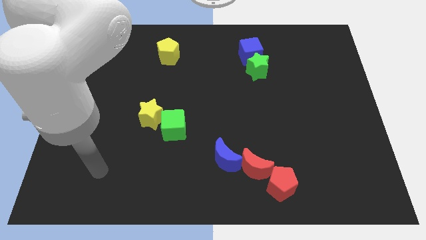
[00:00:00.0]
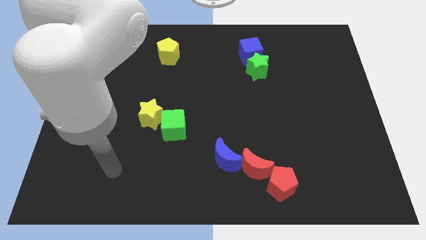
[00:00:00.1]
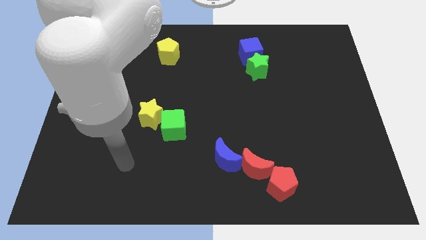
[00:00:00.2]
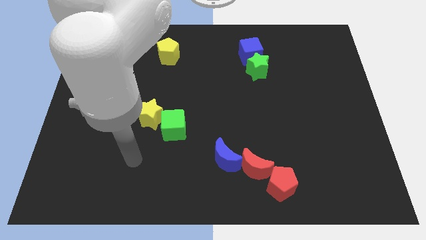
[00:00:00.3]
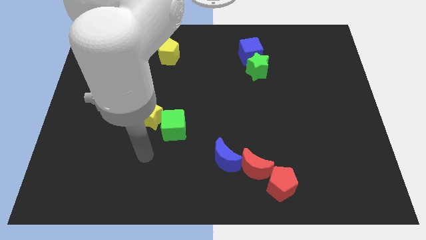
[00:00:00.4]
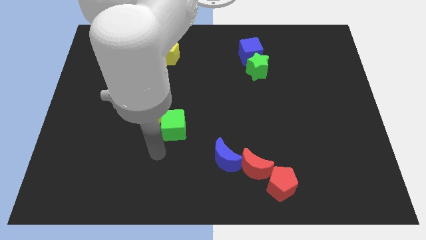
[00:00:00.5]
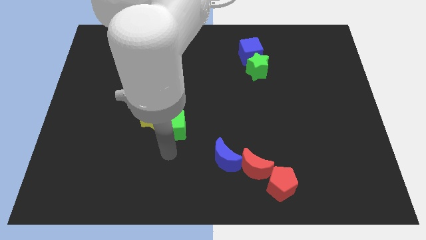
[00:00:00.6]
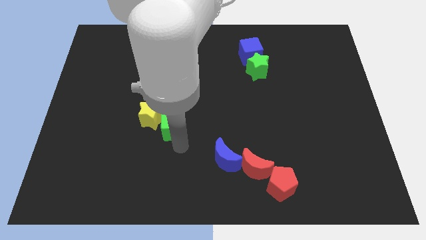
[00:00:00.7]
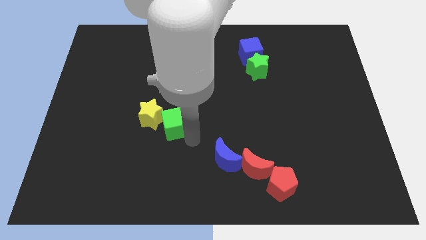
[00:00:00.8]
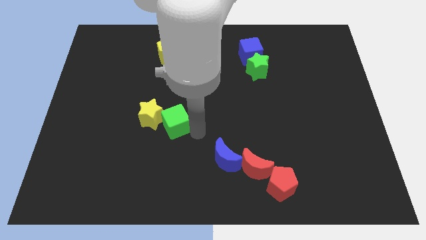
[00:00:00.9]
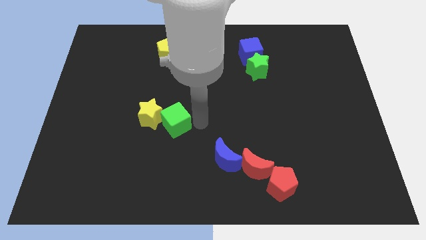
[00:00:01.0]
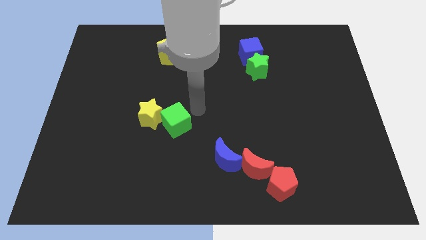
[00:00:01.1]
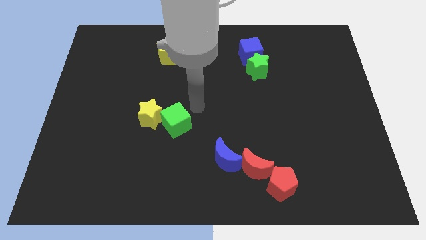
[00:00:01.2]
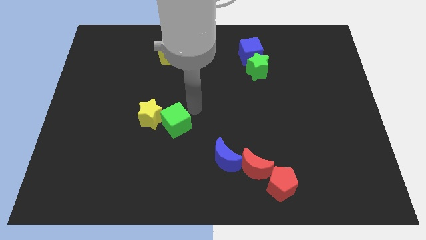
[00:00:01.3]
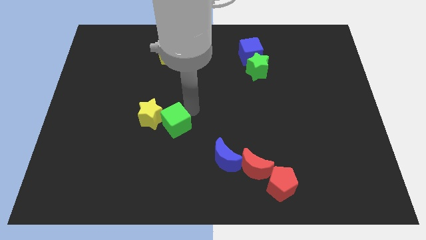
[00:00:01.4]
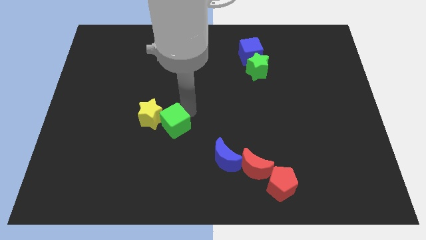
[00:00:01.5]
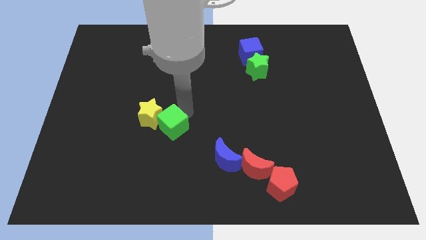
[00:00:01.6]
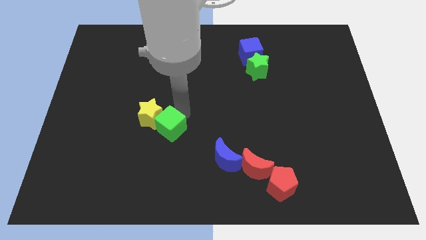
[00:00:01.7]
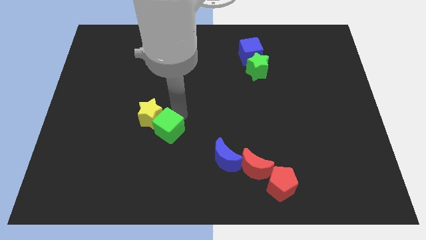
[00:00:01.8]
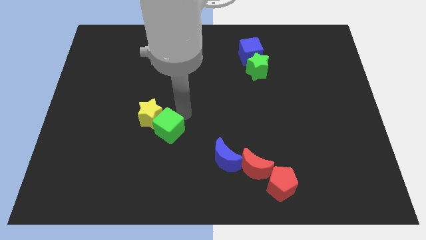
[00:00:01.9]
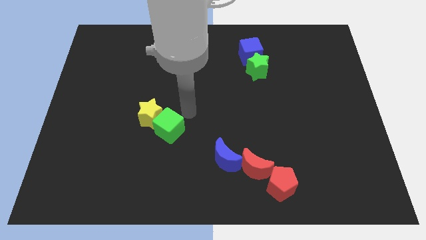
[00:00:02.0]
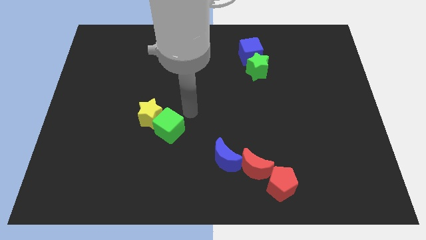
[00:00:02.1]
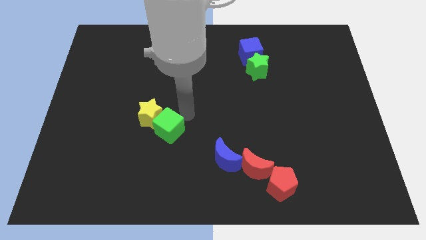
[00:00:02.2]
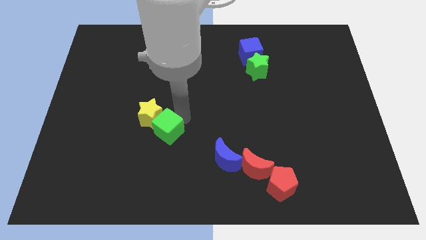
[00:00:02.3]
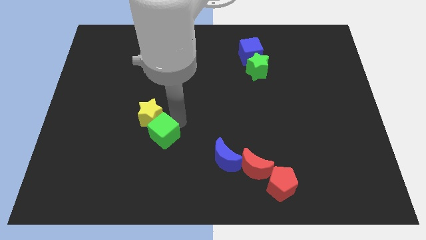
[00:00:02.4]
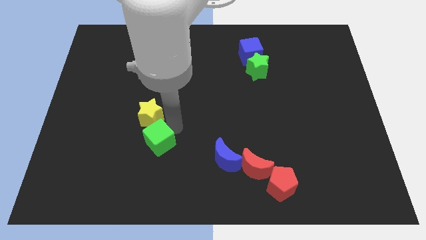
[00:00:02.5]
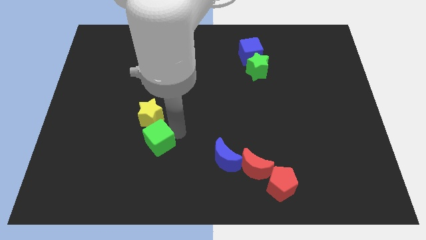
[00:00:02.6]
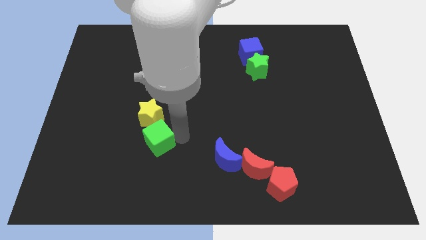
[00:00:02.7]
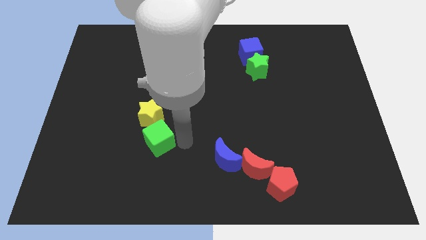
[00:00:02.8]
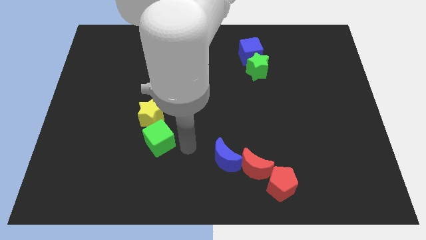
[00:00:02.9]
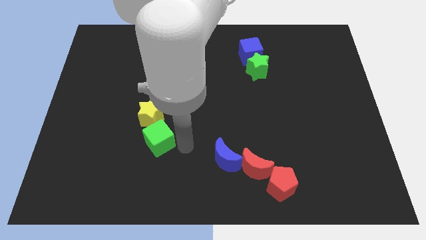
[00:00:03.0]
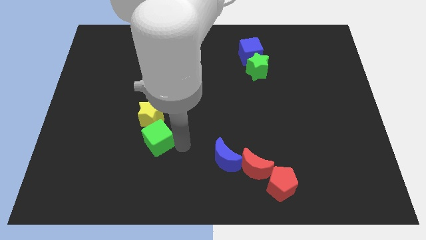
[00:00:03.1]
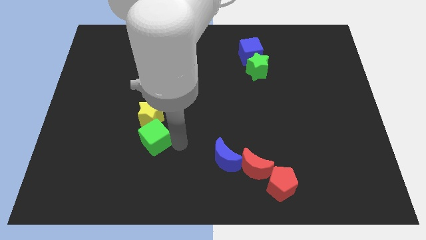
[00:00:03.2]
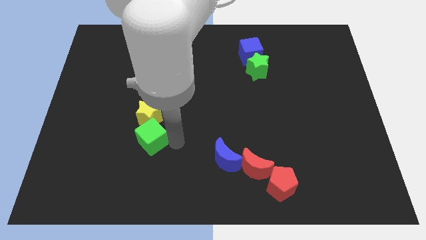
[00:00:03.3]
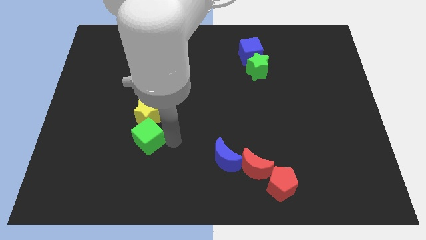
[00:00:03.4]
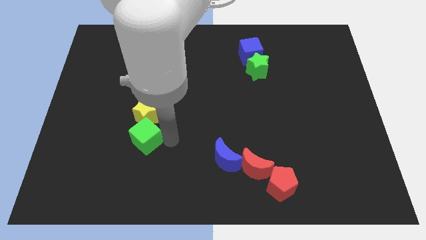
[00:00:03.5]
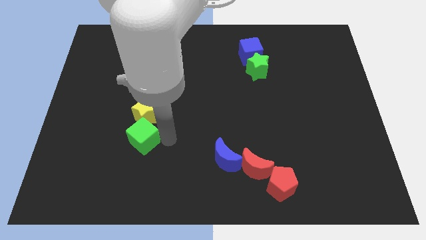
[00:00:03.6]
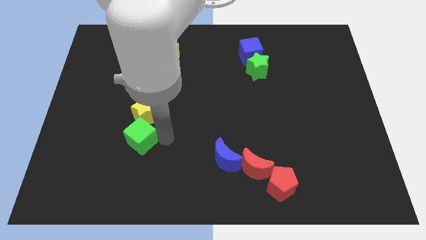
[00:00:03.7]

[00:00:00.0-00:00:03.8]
push the green cube to the left a little

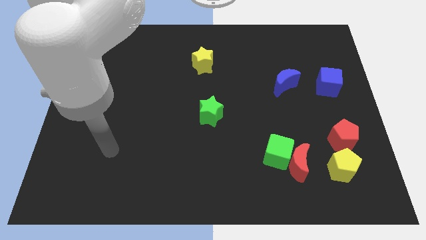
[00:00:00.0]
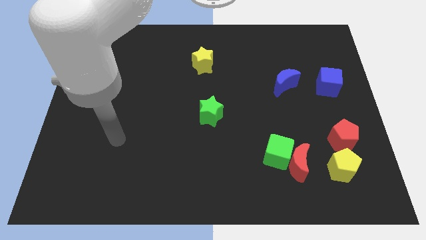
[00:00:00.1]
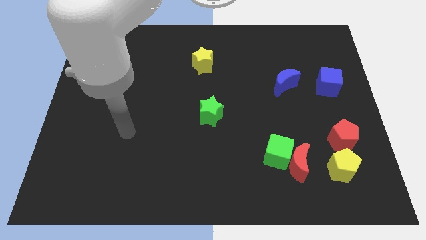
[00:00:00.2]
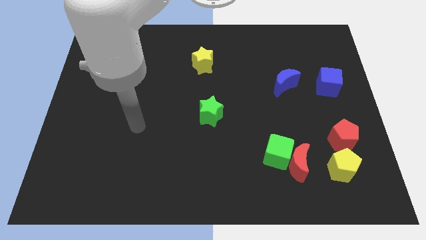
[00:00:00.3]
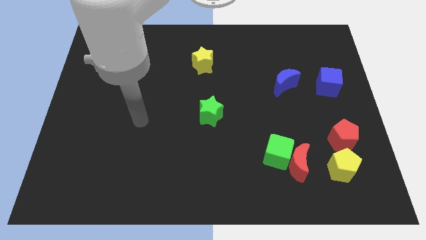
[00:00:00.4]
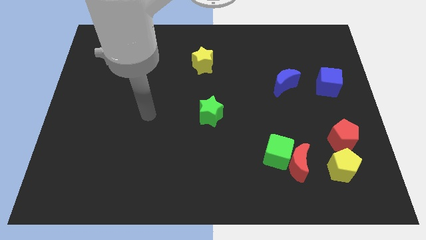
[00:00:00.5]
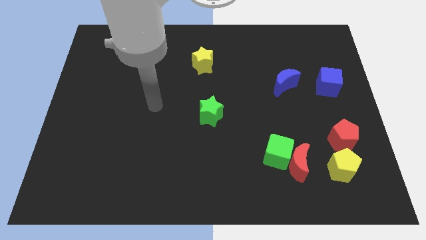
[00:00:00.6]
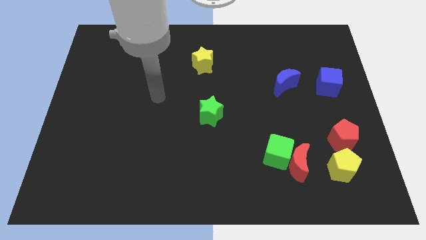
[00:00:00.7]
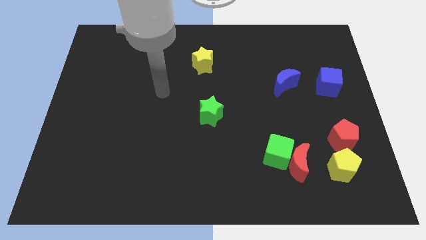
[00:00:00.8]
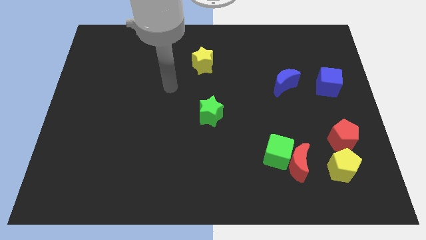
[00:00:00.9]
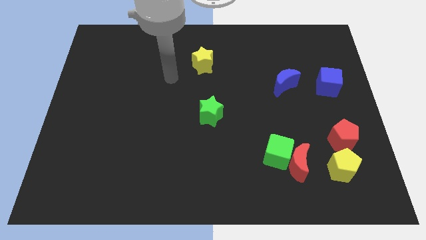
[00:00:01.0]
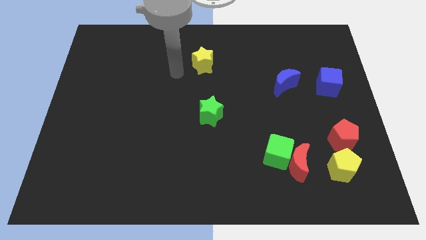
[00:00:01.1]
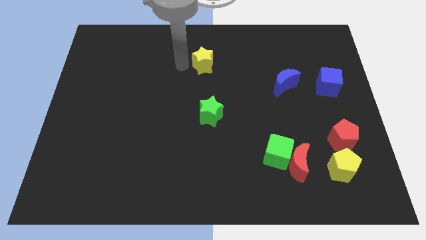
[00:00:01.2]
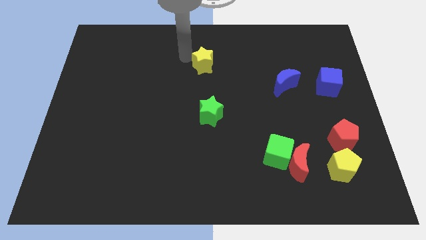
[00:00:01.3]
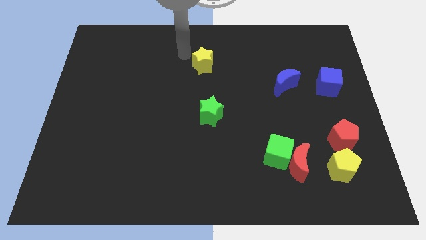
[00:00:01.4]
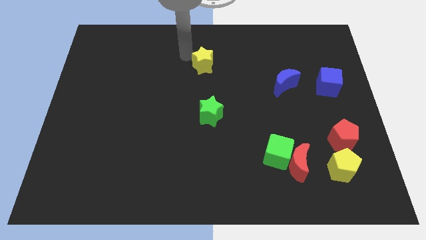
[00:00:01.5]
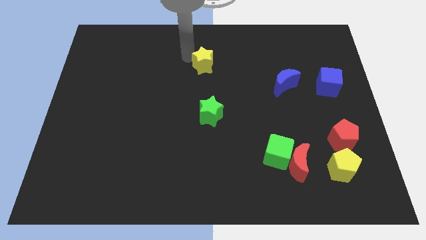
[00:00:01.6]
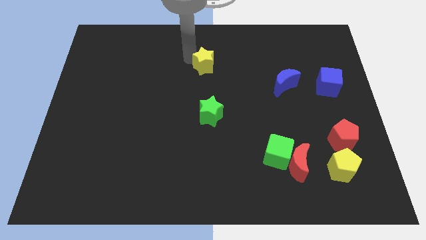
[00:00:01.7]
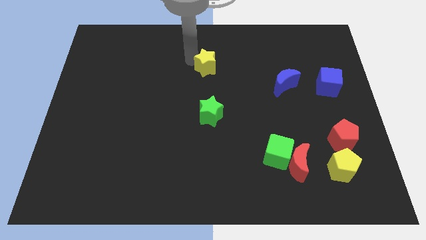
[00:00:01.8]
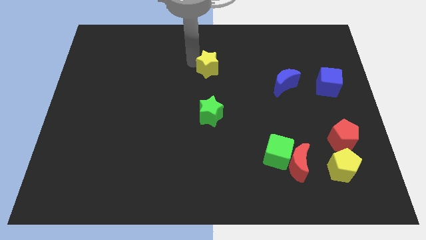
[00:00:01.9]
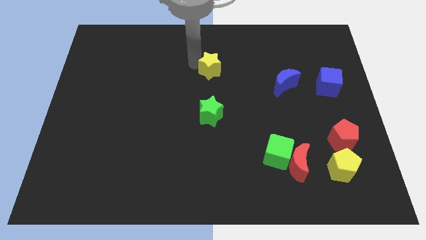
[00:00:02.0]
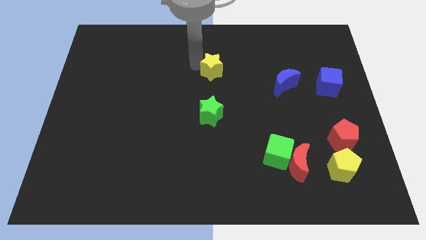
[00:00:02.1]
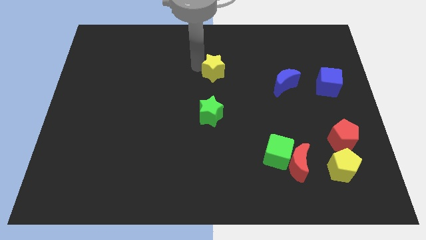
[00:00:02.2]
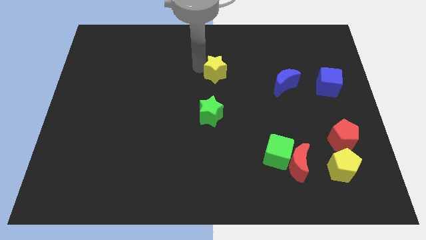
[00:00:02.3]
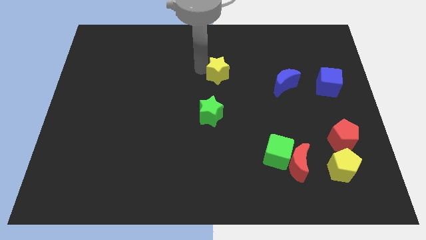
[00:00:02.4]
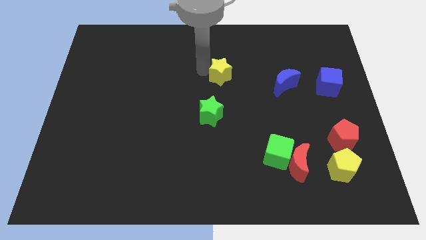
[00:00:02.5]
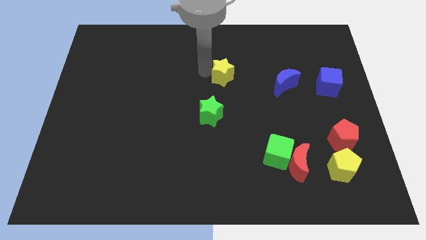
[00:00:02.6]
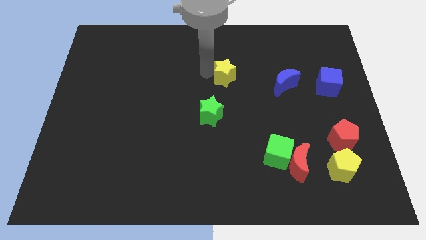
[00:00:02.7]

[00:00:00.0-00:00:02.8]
slightly slide the yellow star down and then to the right

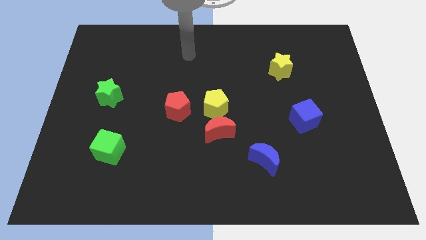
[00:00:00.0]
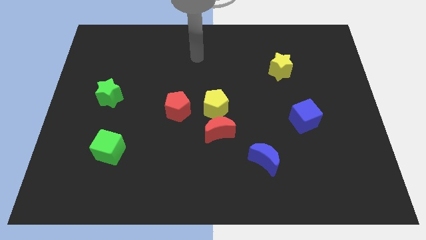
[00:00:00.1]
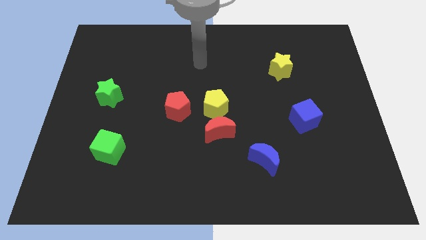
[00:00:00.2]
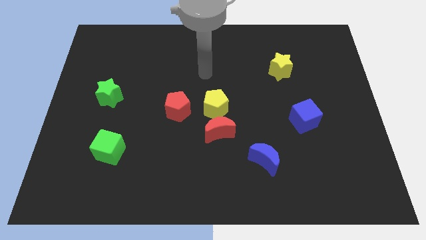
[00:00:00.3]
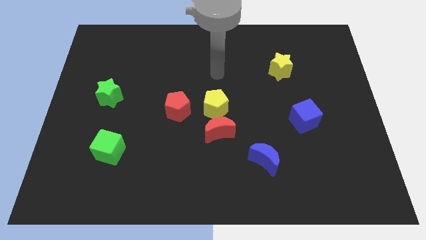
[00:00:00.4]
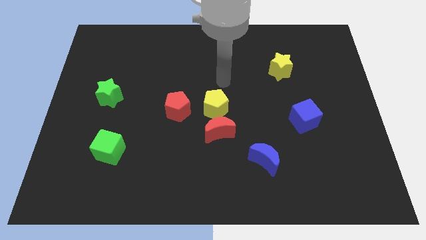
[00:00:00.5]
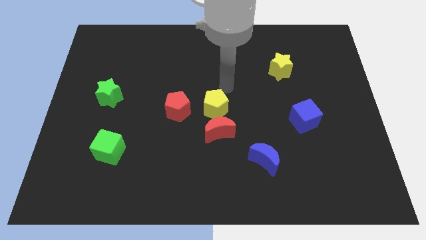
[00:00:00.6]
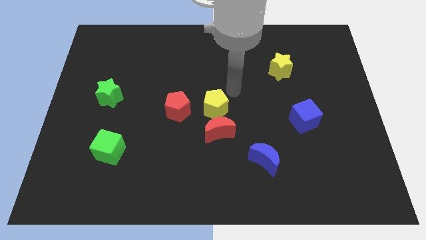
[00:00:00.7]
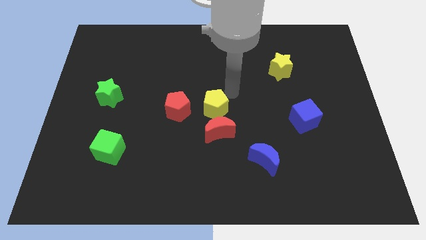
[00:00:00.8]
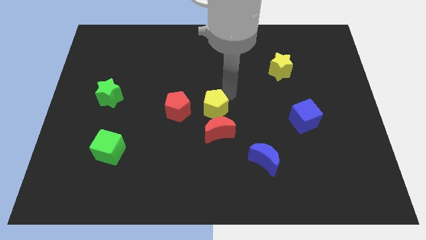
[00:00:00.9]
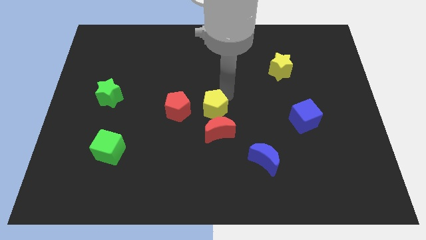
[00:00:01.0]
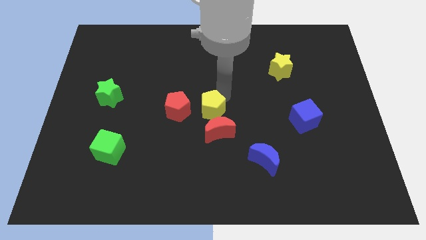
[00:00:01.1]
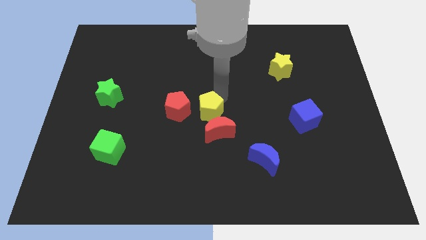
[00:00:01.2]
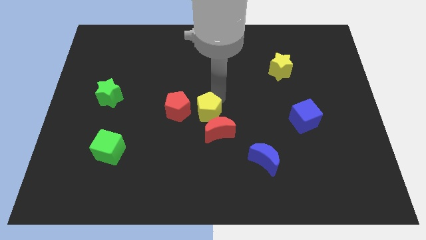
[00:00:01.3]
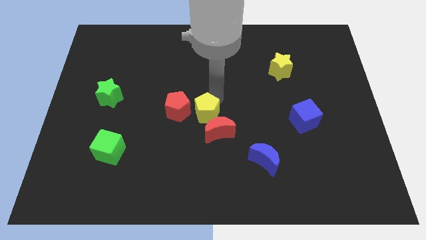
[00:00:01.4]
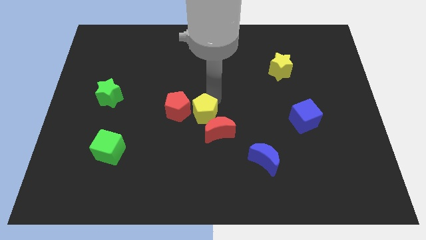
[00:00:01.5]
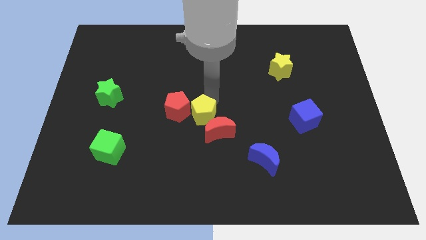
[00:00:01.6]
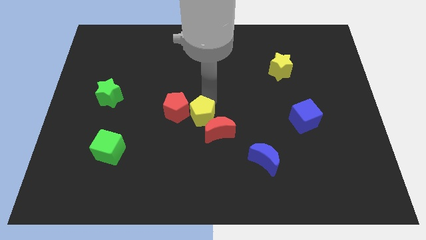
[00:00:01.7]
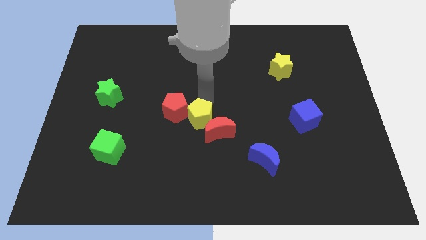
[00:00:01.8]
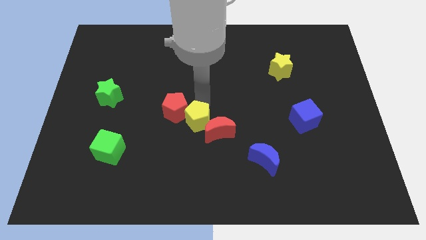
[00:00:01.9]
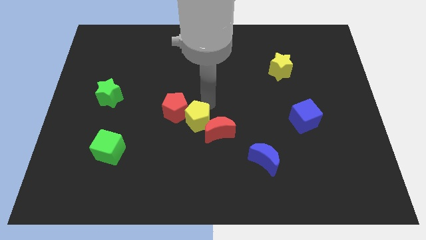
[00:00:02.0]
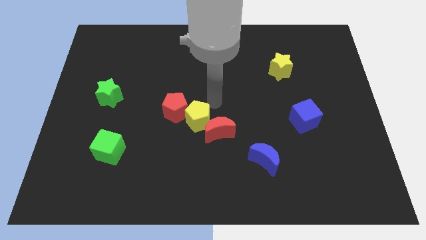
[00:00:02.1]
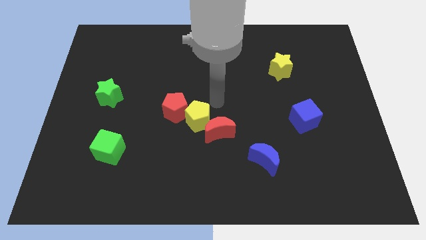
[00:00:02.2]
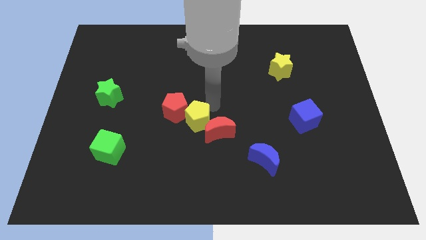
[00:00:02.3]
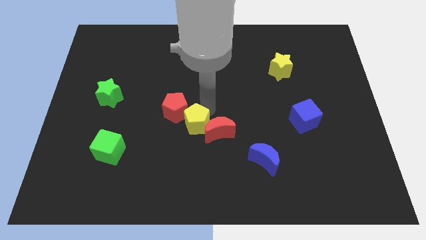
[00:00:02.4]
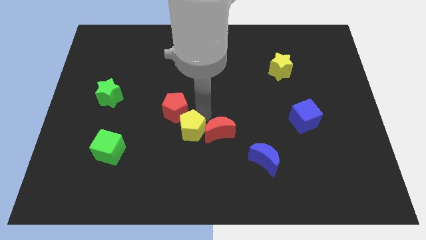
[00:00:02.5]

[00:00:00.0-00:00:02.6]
push the yellow pentagon somewhat down and left
